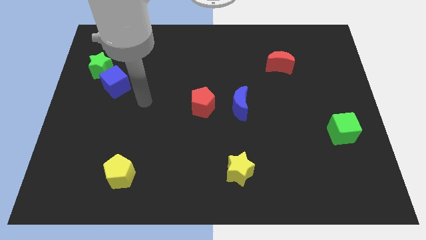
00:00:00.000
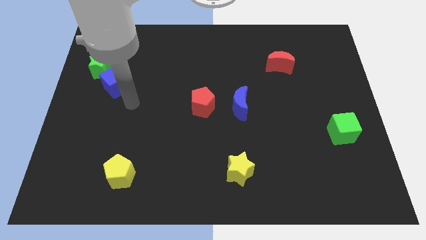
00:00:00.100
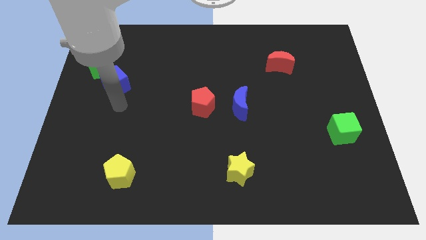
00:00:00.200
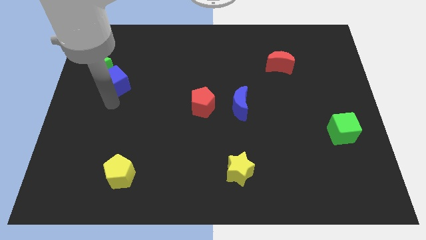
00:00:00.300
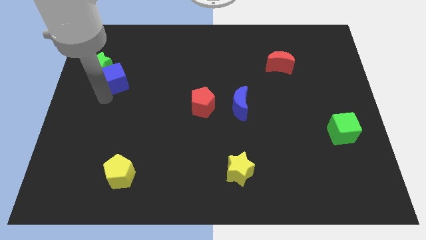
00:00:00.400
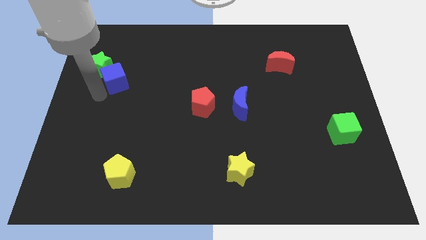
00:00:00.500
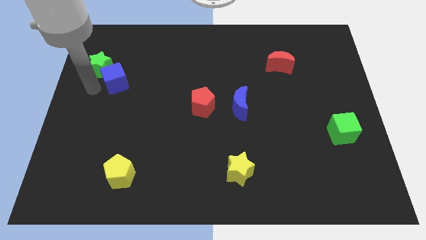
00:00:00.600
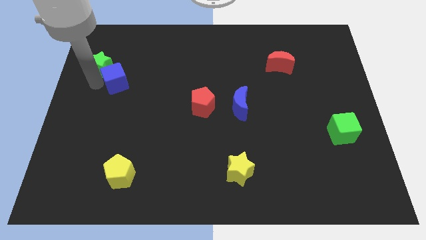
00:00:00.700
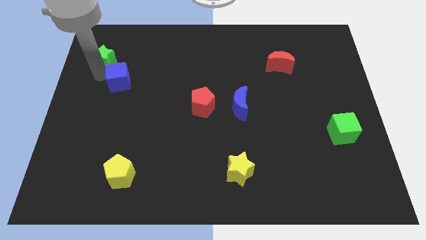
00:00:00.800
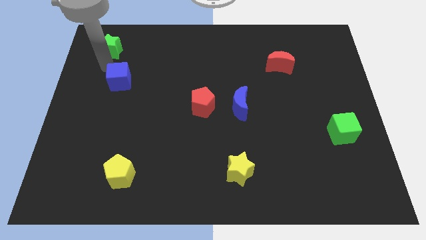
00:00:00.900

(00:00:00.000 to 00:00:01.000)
pull the blue cube apart from the green star

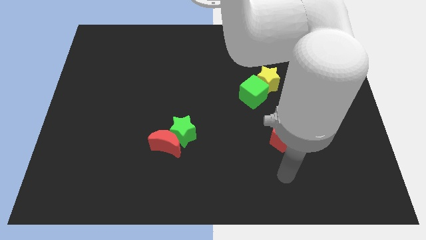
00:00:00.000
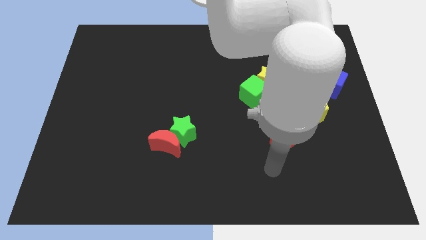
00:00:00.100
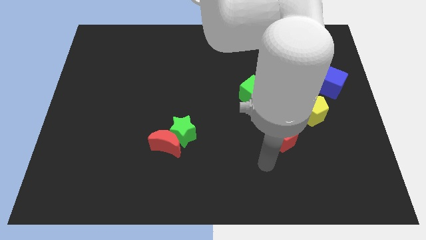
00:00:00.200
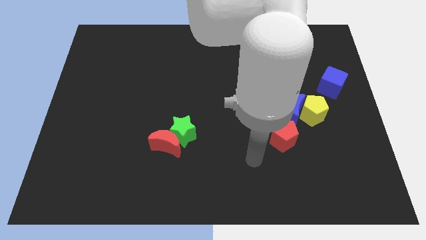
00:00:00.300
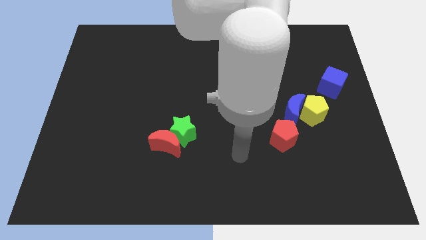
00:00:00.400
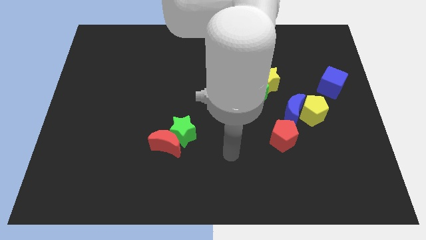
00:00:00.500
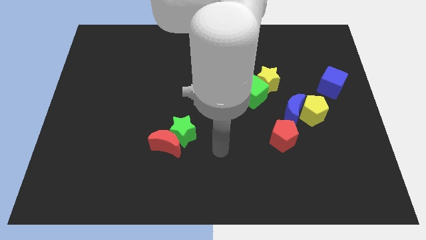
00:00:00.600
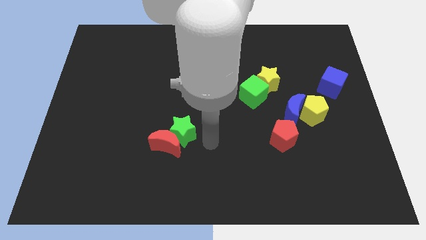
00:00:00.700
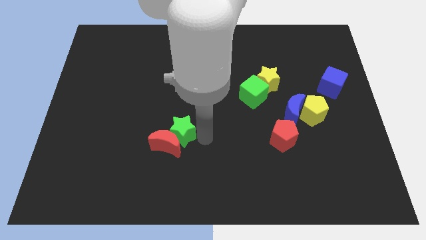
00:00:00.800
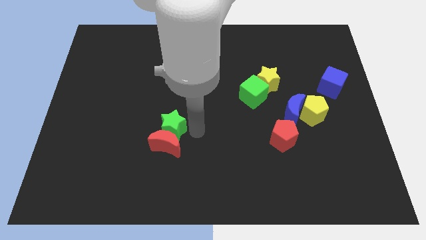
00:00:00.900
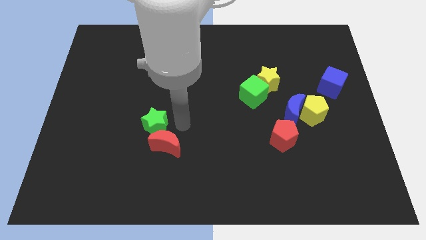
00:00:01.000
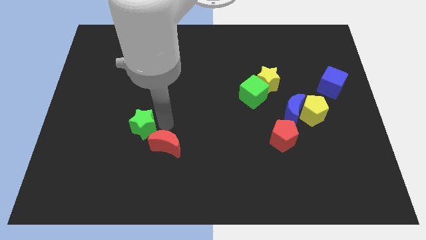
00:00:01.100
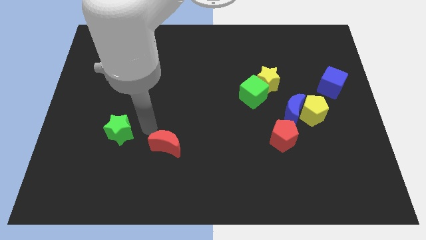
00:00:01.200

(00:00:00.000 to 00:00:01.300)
move the red moon away from the green star

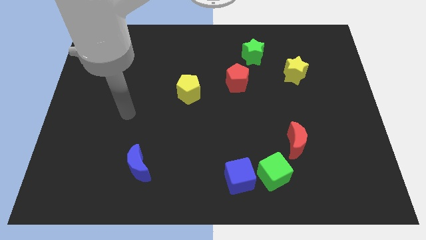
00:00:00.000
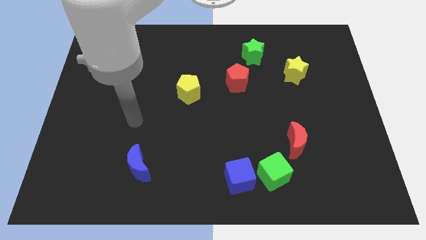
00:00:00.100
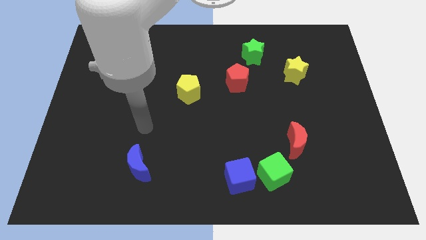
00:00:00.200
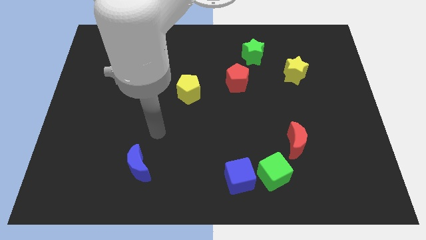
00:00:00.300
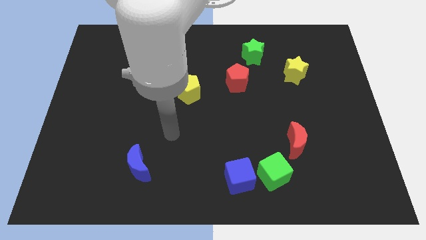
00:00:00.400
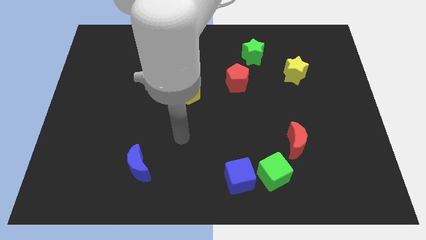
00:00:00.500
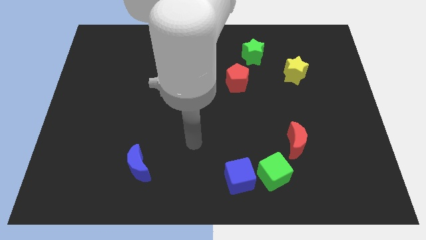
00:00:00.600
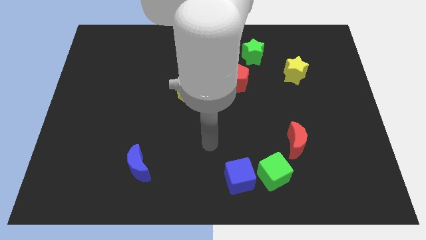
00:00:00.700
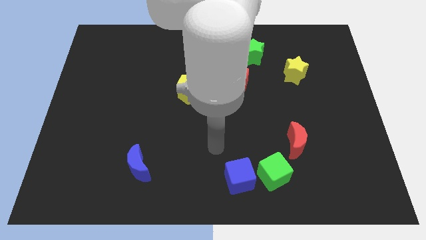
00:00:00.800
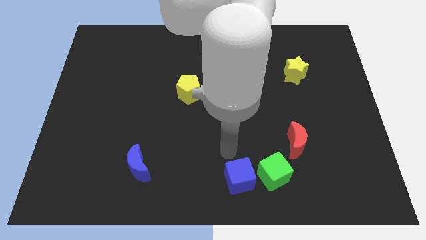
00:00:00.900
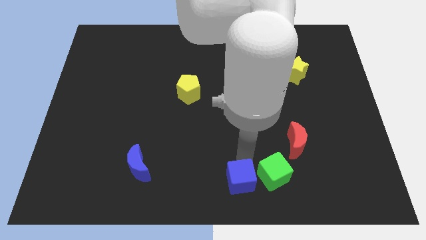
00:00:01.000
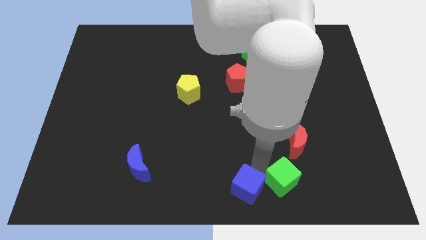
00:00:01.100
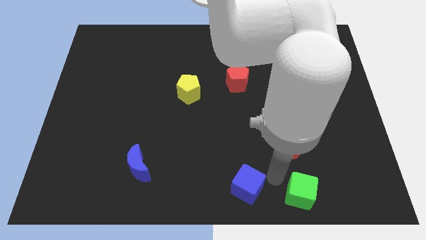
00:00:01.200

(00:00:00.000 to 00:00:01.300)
pull the blue cube apart from the green cube

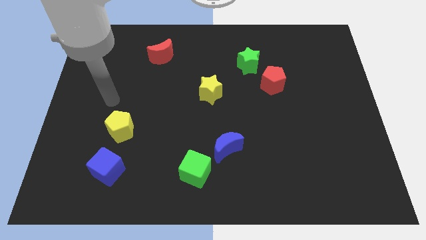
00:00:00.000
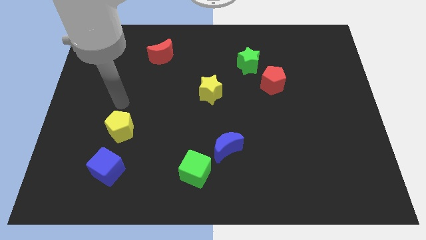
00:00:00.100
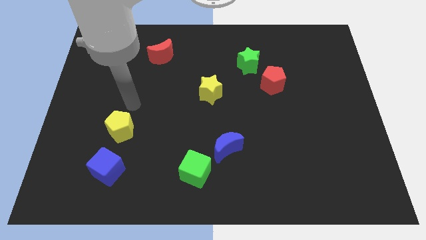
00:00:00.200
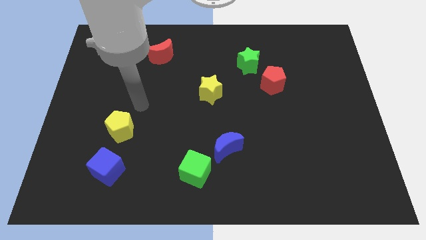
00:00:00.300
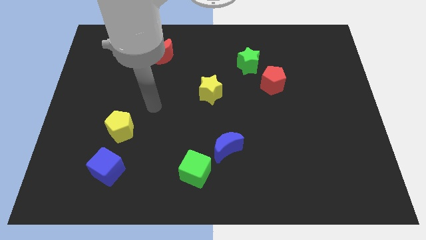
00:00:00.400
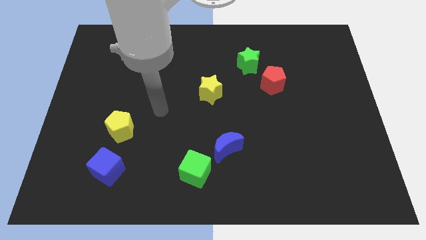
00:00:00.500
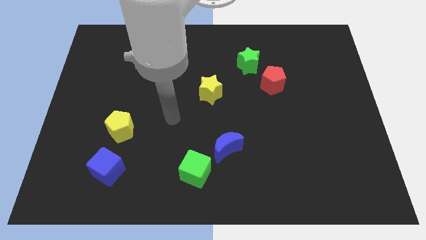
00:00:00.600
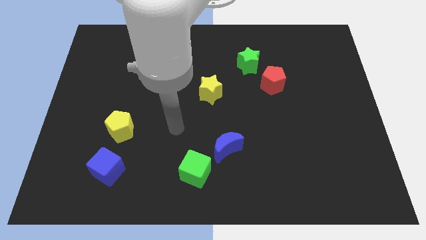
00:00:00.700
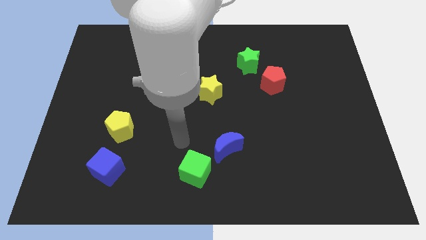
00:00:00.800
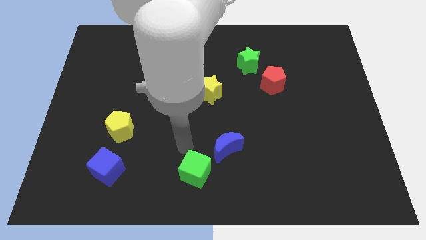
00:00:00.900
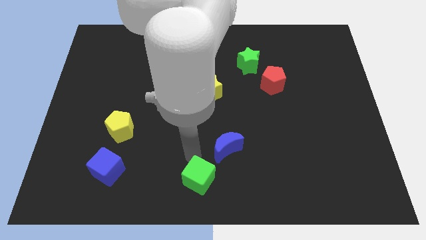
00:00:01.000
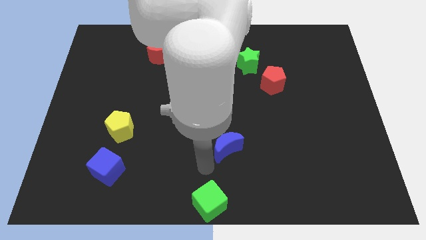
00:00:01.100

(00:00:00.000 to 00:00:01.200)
separate the blue moon from the green cube

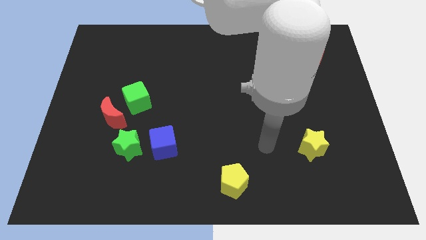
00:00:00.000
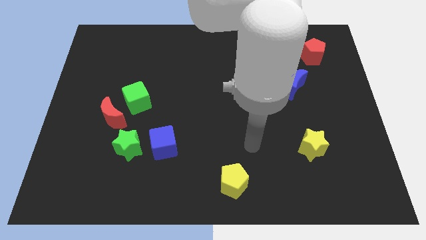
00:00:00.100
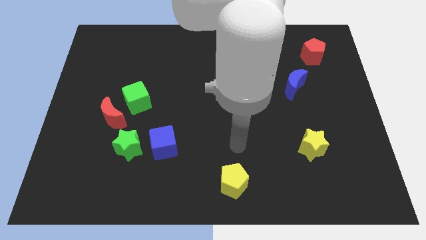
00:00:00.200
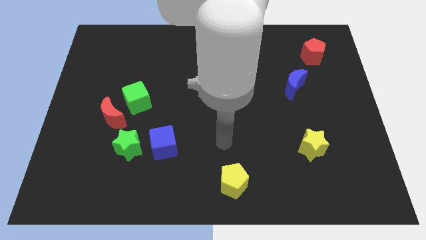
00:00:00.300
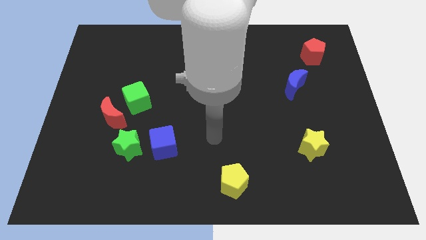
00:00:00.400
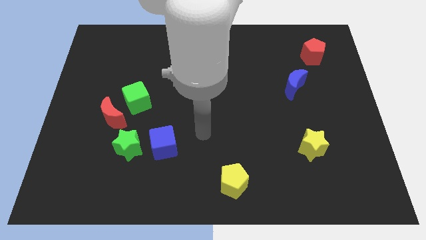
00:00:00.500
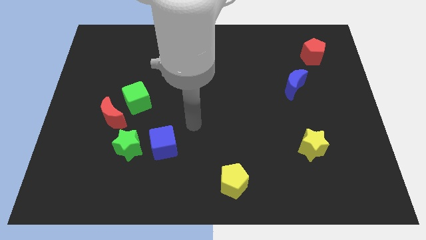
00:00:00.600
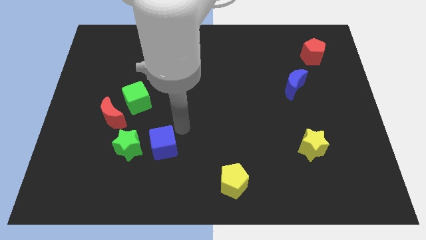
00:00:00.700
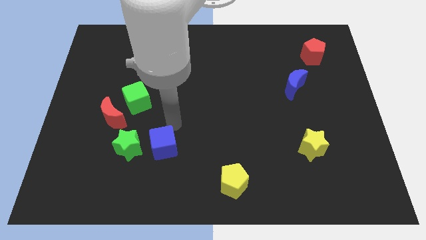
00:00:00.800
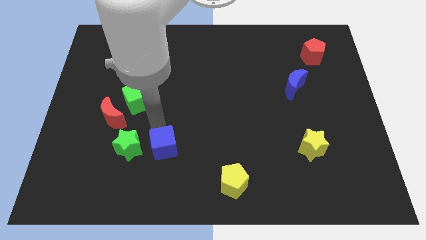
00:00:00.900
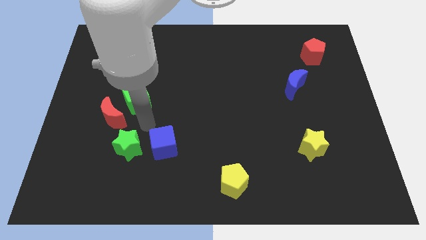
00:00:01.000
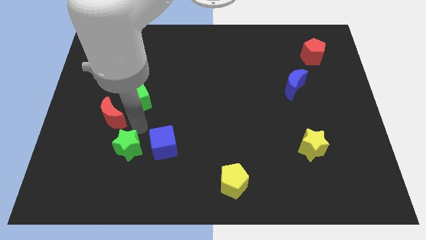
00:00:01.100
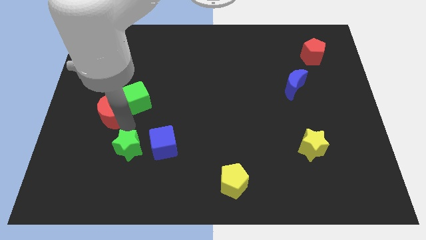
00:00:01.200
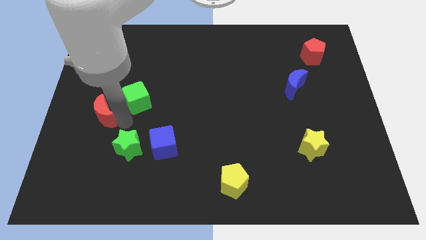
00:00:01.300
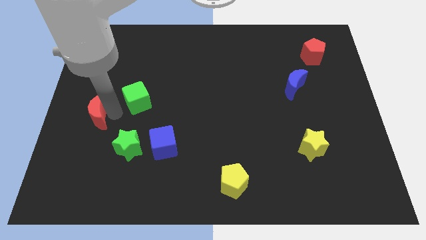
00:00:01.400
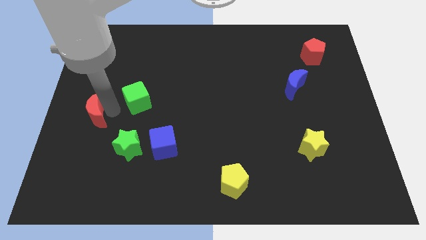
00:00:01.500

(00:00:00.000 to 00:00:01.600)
separate the green cube from the red moon

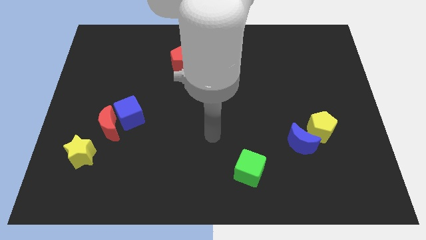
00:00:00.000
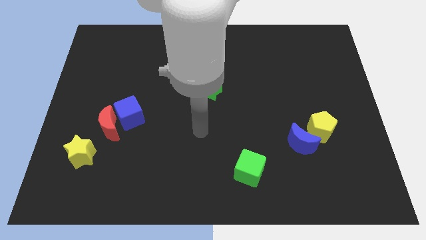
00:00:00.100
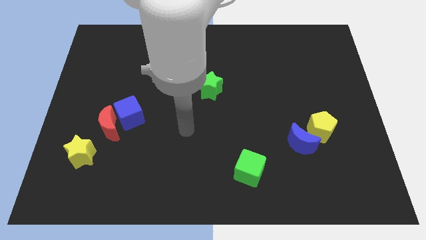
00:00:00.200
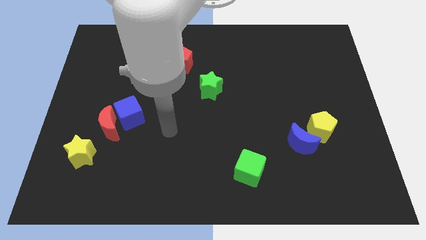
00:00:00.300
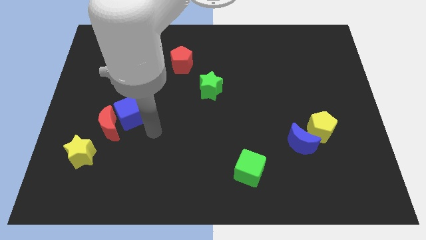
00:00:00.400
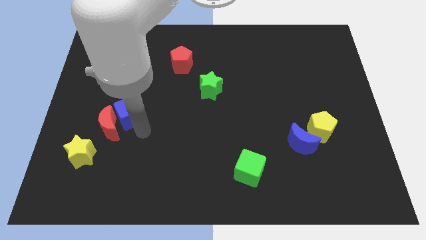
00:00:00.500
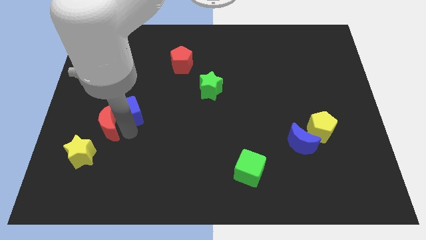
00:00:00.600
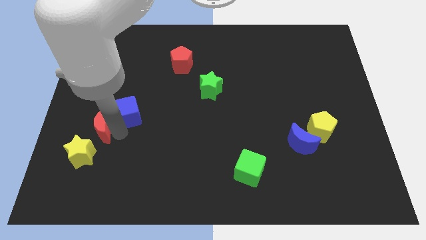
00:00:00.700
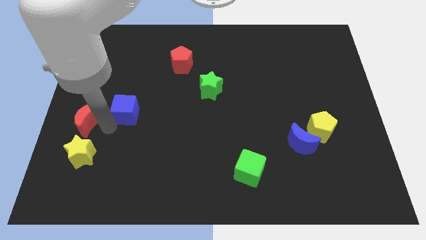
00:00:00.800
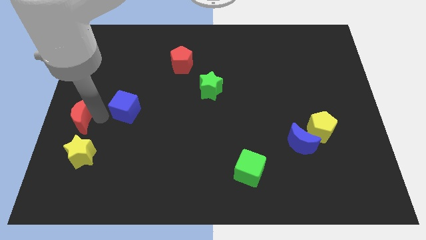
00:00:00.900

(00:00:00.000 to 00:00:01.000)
pull the blue cube apart from the red moon

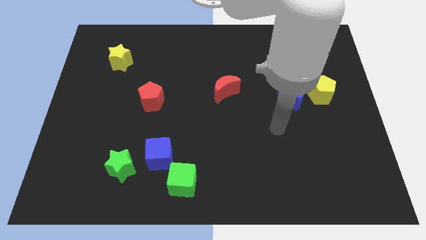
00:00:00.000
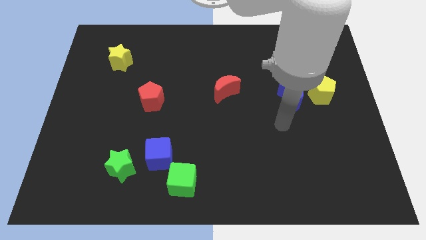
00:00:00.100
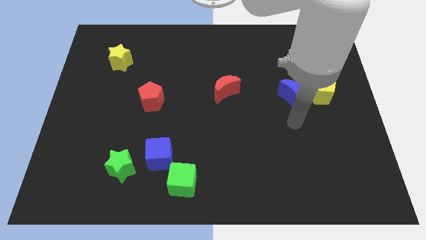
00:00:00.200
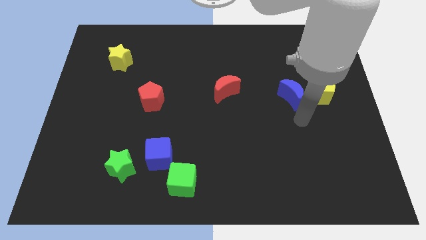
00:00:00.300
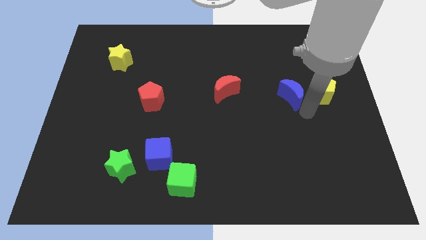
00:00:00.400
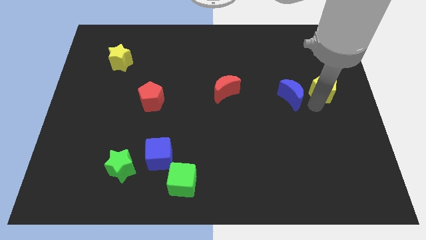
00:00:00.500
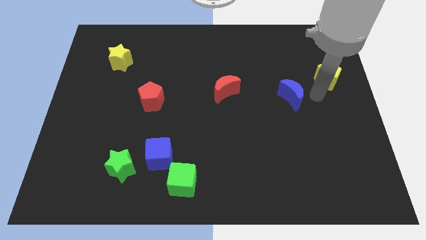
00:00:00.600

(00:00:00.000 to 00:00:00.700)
move the blue moon away from the yellow pentagon

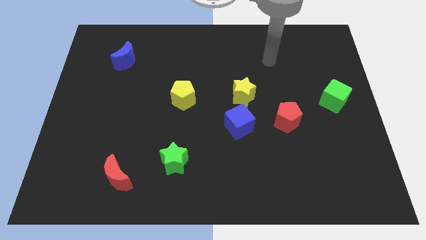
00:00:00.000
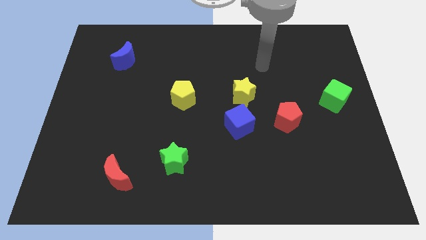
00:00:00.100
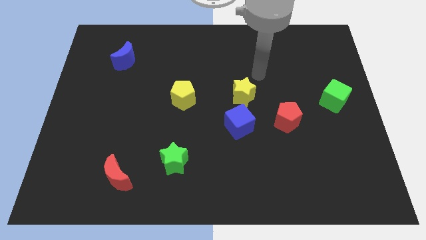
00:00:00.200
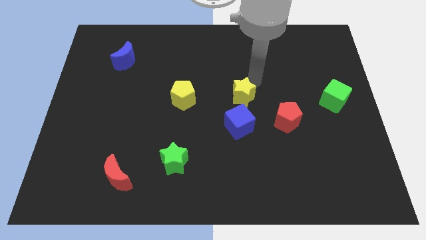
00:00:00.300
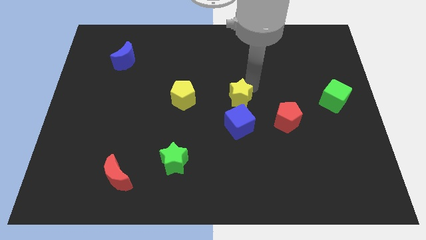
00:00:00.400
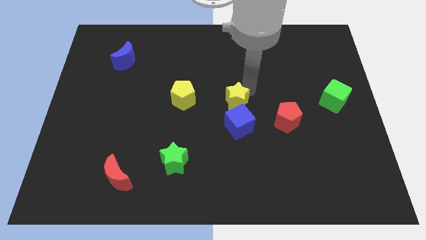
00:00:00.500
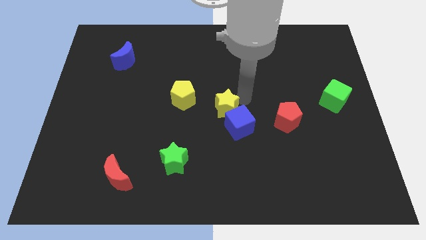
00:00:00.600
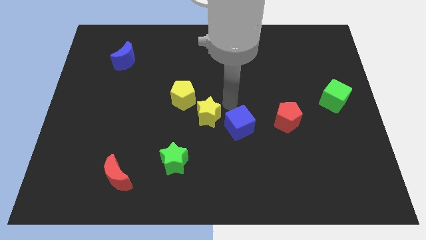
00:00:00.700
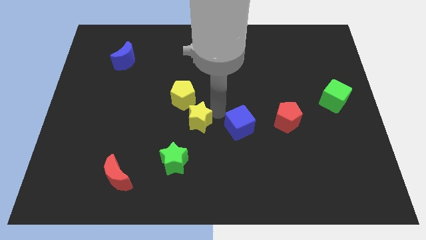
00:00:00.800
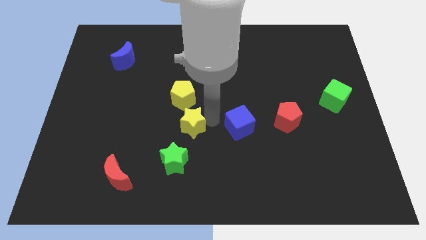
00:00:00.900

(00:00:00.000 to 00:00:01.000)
separate the blue cube from the yellow star

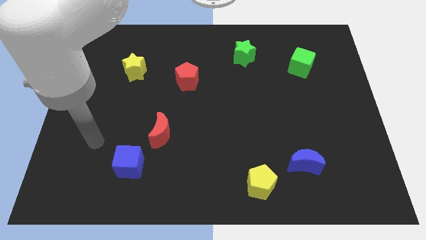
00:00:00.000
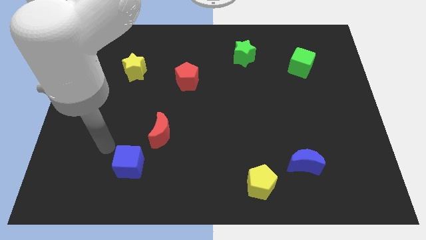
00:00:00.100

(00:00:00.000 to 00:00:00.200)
pull the red moon apart from the blue cube
